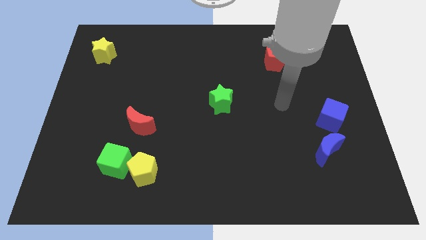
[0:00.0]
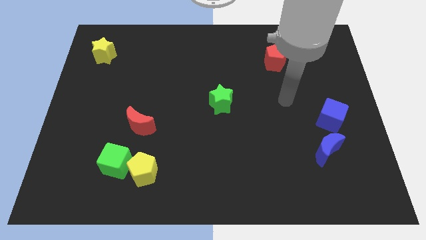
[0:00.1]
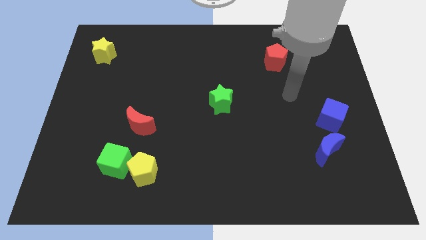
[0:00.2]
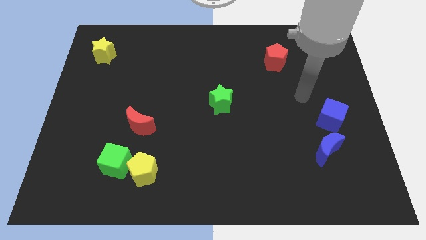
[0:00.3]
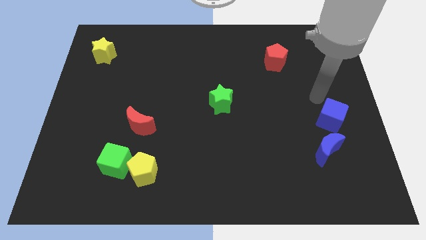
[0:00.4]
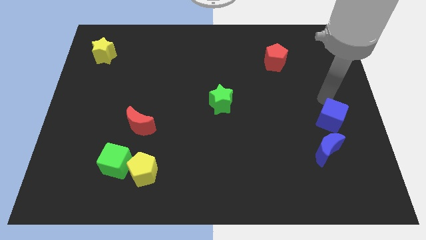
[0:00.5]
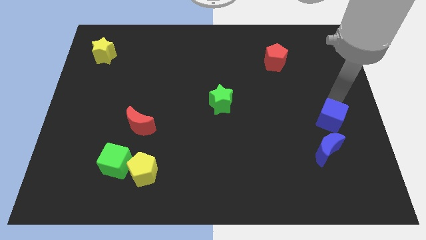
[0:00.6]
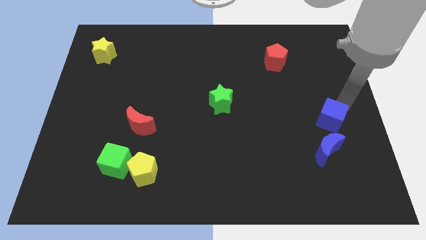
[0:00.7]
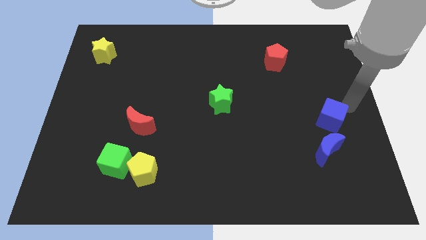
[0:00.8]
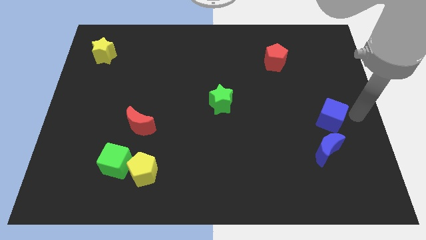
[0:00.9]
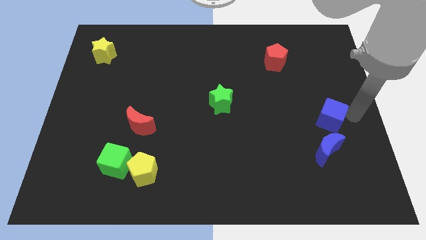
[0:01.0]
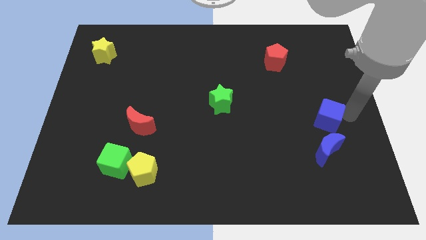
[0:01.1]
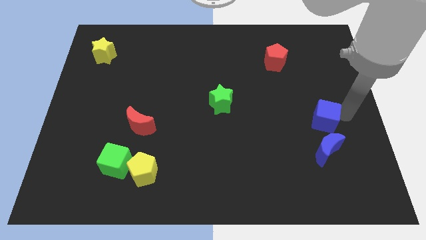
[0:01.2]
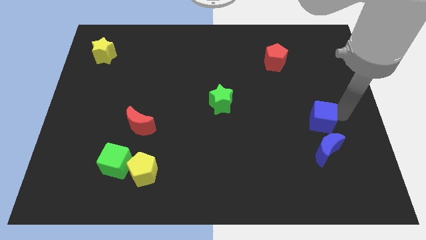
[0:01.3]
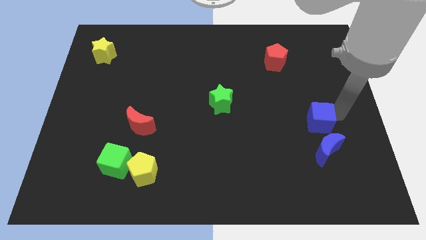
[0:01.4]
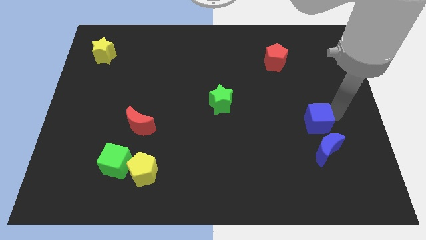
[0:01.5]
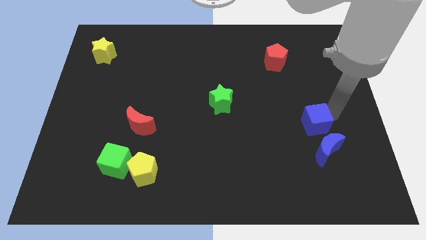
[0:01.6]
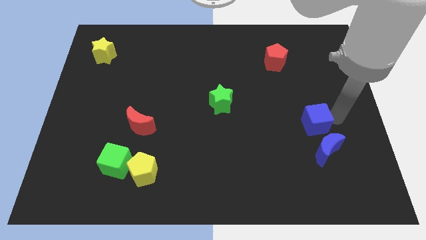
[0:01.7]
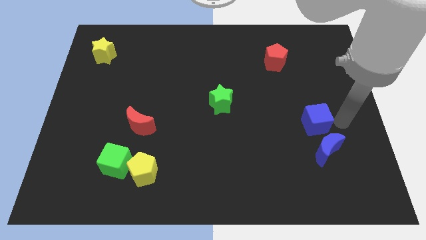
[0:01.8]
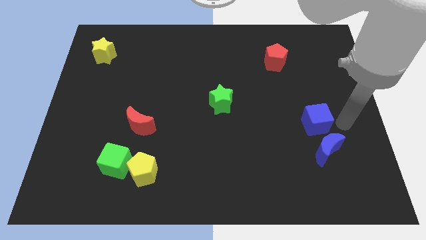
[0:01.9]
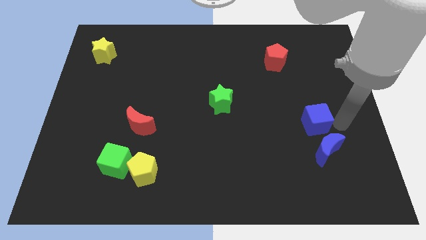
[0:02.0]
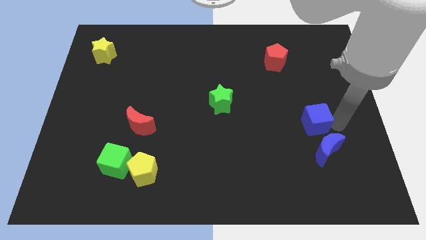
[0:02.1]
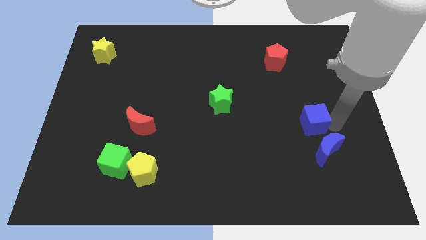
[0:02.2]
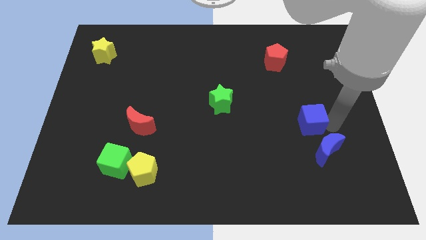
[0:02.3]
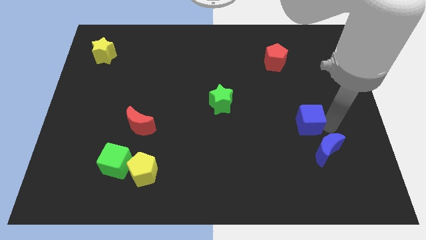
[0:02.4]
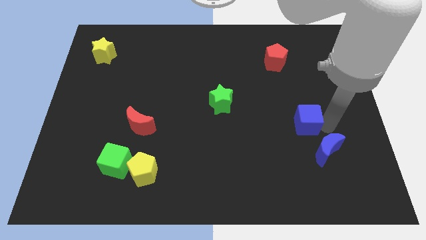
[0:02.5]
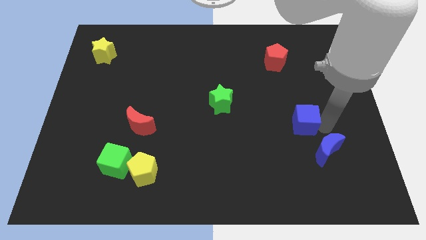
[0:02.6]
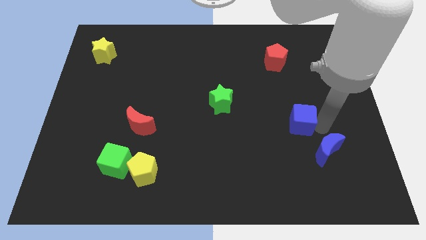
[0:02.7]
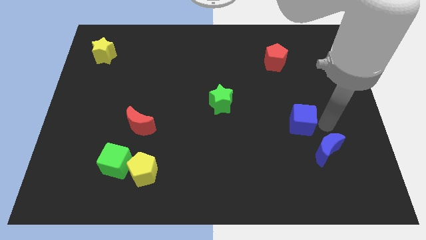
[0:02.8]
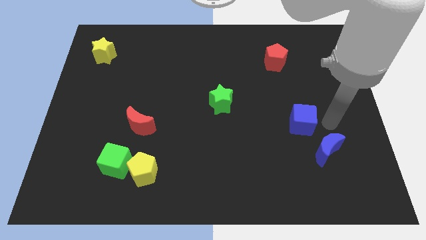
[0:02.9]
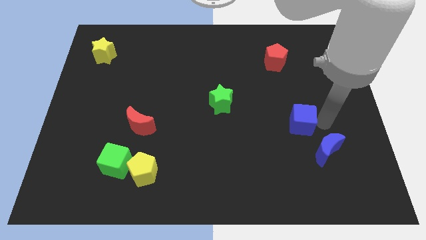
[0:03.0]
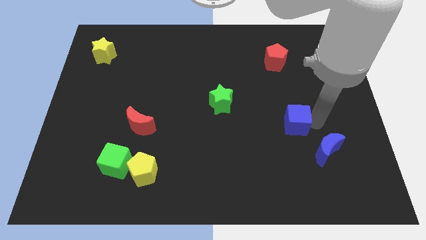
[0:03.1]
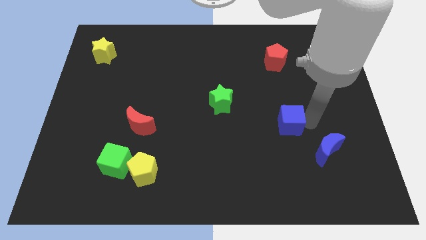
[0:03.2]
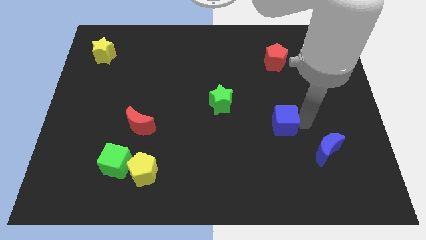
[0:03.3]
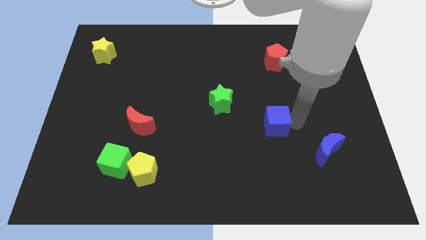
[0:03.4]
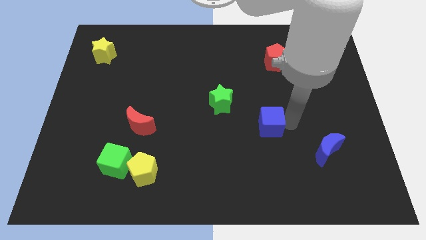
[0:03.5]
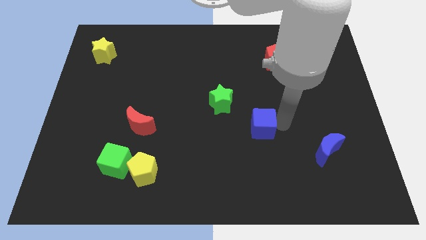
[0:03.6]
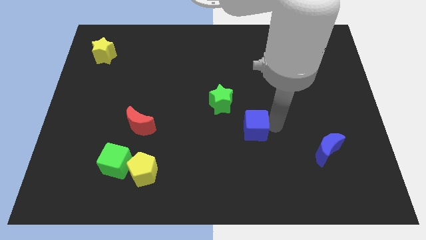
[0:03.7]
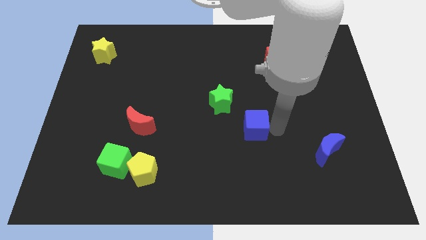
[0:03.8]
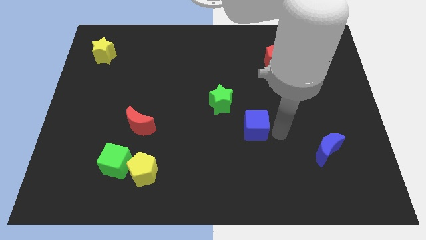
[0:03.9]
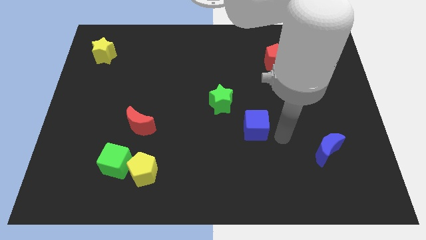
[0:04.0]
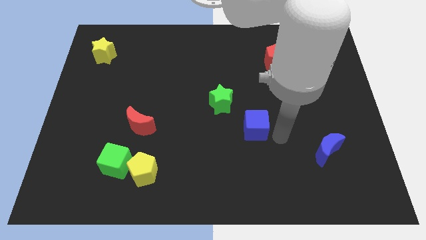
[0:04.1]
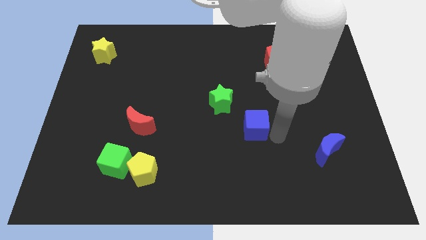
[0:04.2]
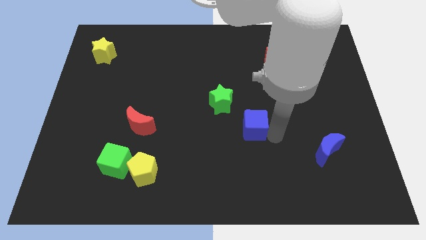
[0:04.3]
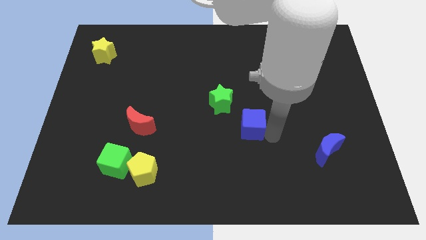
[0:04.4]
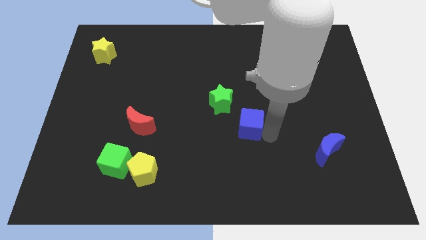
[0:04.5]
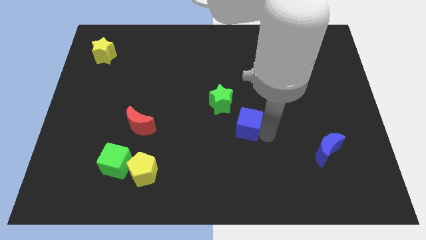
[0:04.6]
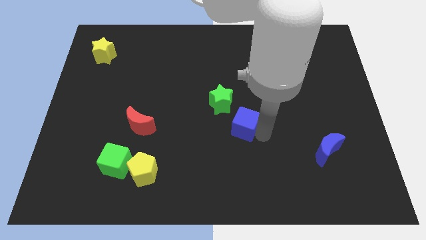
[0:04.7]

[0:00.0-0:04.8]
move the blue cube left

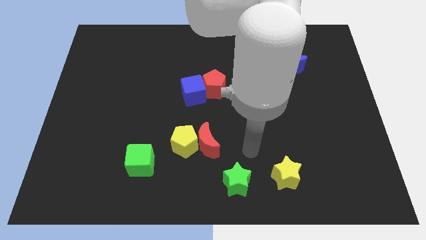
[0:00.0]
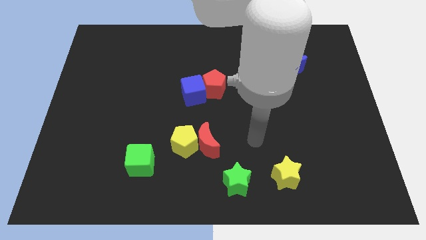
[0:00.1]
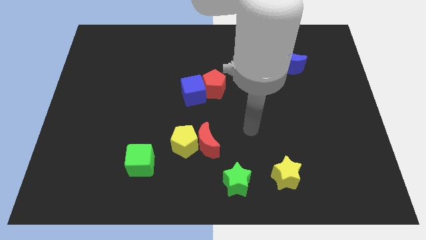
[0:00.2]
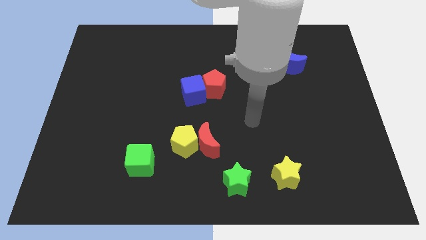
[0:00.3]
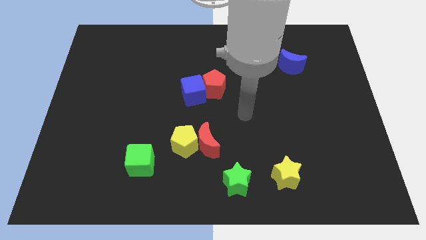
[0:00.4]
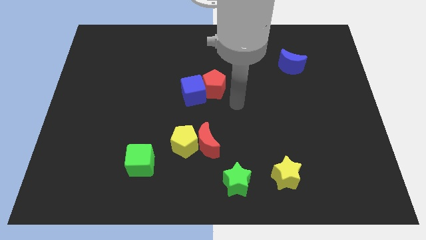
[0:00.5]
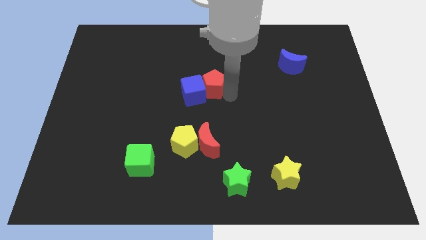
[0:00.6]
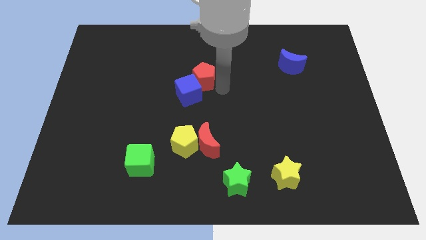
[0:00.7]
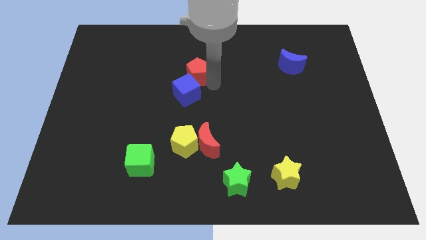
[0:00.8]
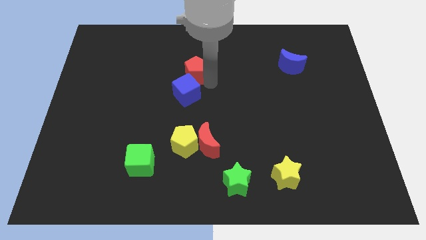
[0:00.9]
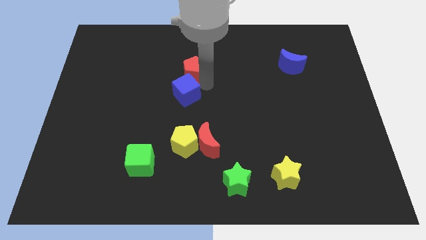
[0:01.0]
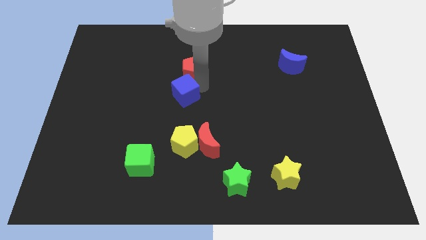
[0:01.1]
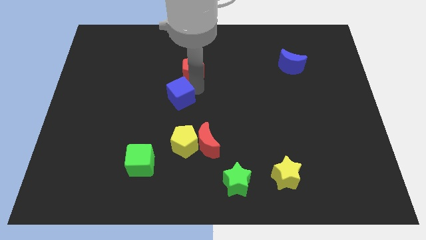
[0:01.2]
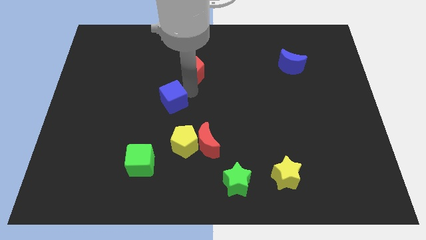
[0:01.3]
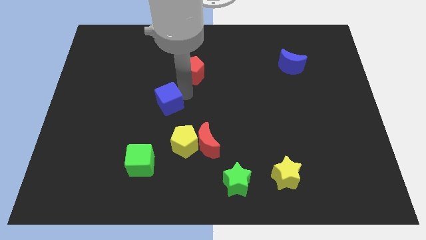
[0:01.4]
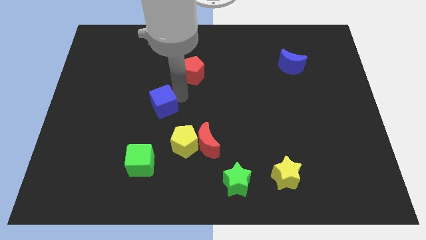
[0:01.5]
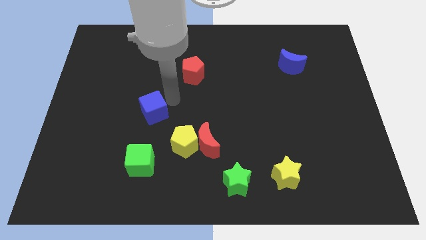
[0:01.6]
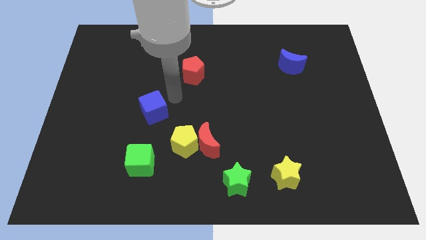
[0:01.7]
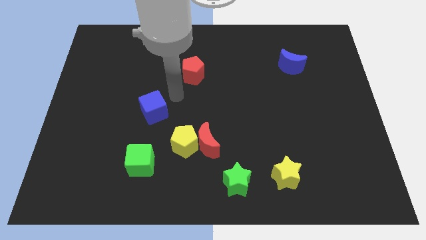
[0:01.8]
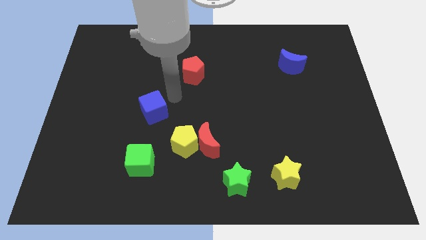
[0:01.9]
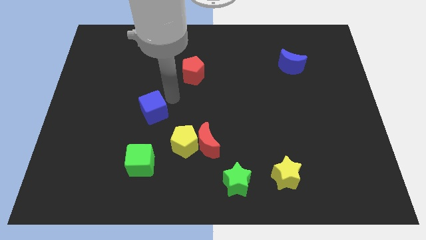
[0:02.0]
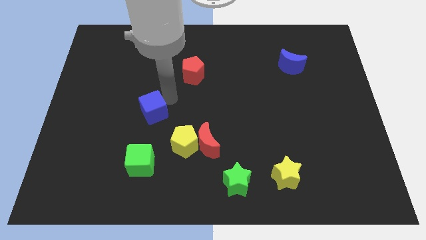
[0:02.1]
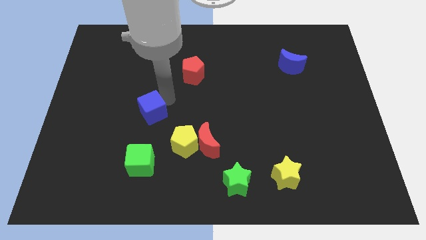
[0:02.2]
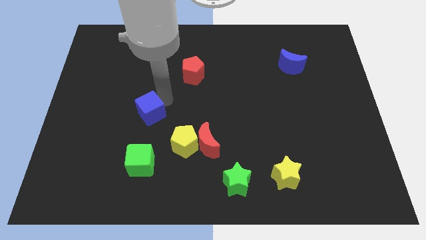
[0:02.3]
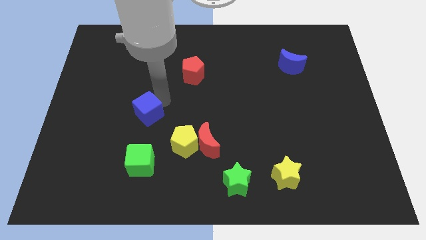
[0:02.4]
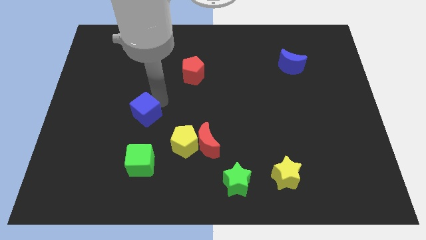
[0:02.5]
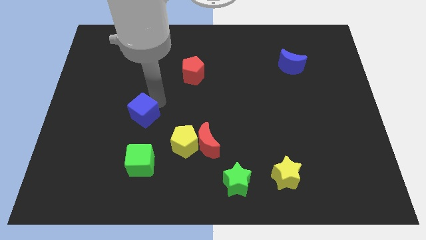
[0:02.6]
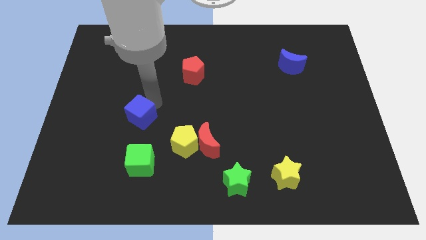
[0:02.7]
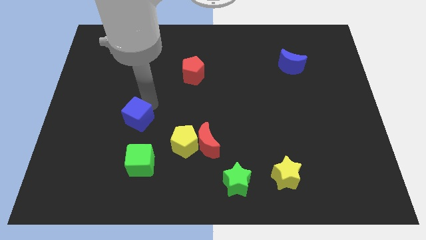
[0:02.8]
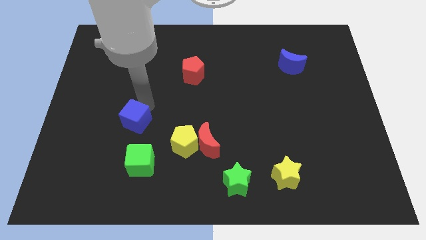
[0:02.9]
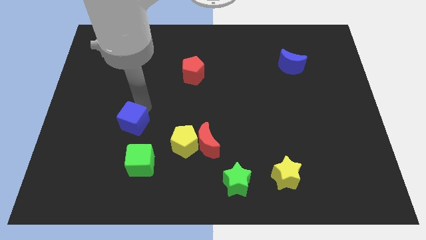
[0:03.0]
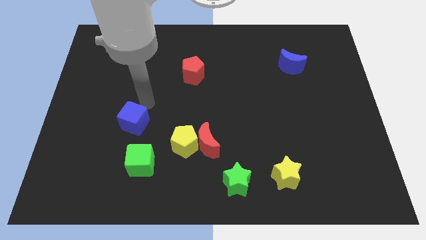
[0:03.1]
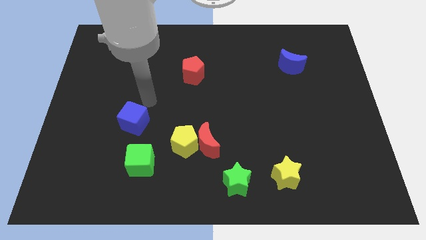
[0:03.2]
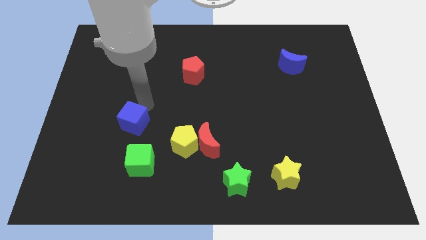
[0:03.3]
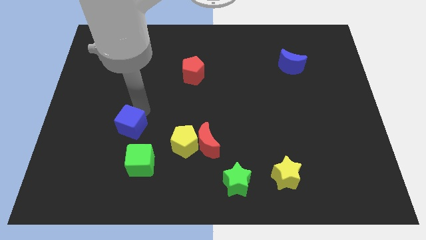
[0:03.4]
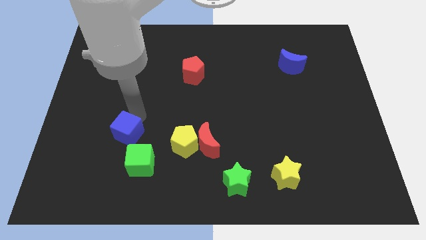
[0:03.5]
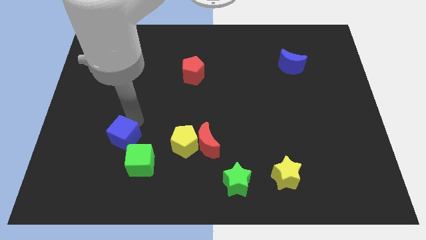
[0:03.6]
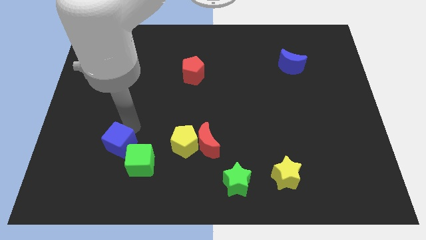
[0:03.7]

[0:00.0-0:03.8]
move the blue cube down and then to the left
